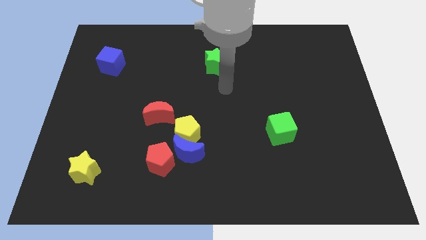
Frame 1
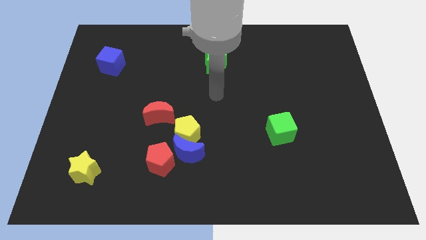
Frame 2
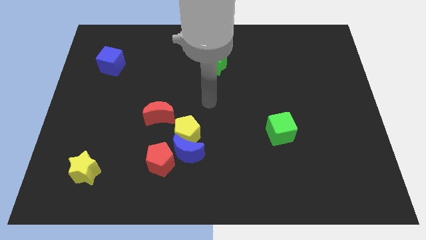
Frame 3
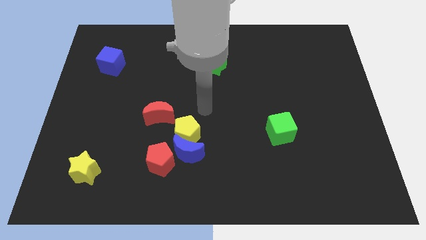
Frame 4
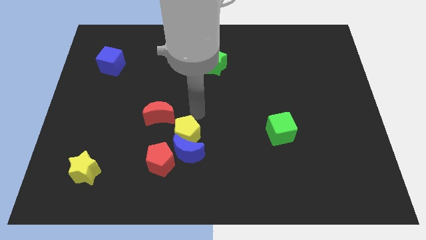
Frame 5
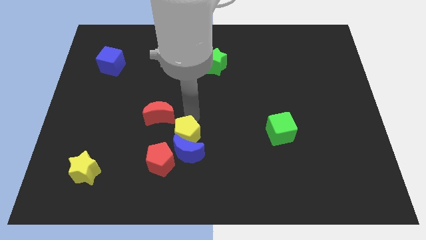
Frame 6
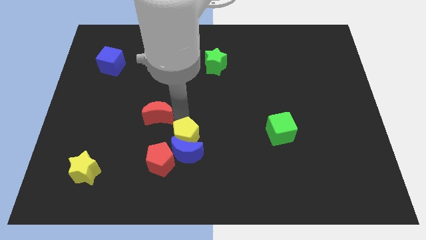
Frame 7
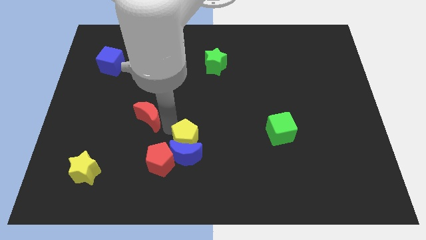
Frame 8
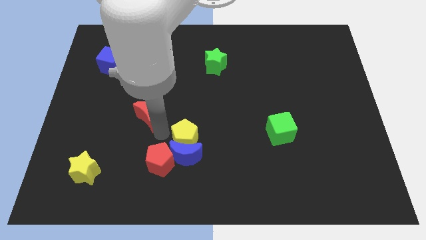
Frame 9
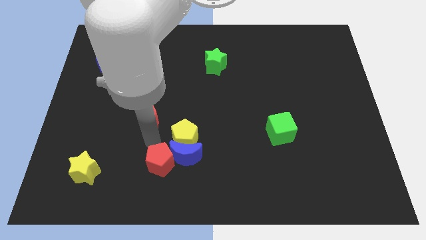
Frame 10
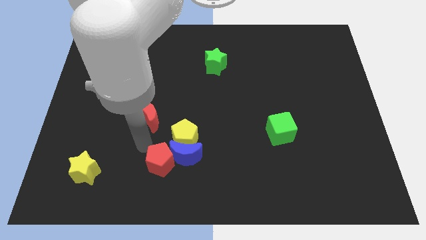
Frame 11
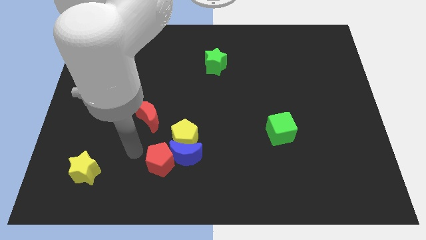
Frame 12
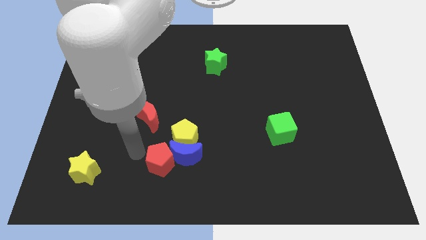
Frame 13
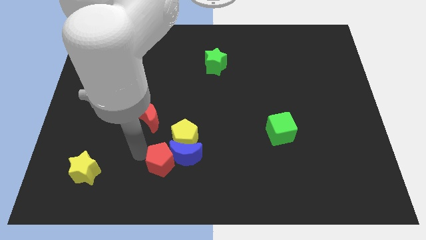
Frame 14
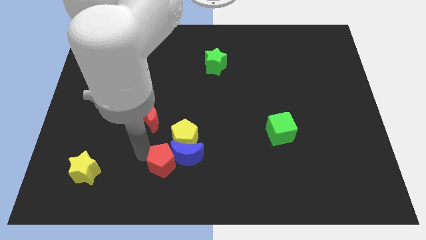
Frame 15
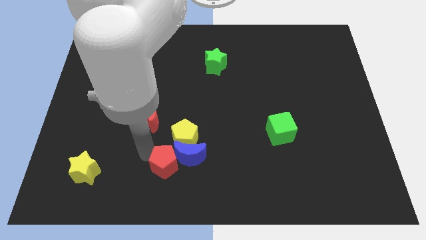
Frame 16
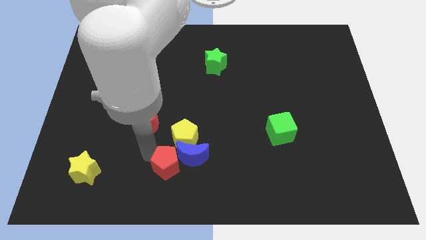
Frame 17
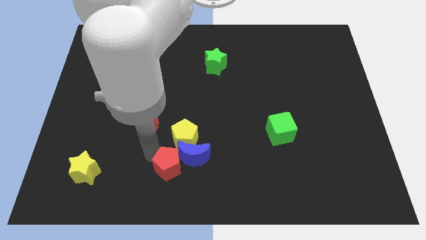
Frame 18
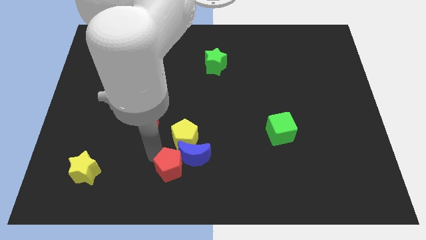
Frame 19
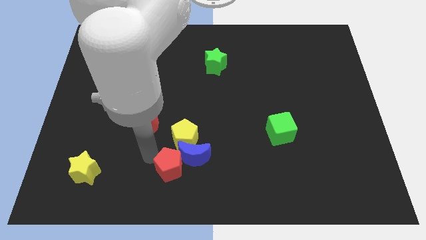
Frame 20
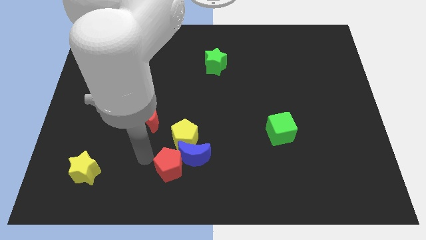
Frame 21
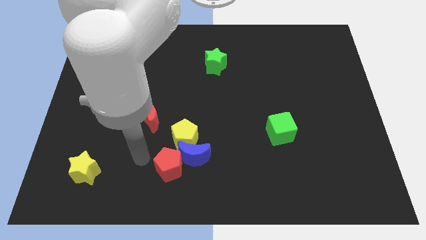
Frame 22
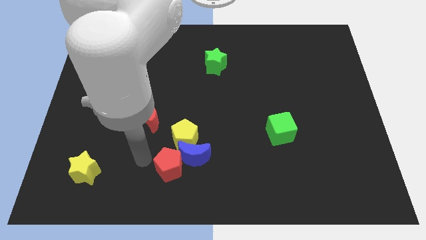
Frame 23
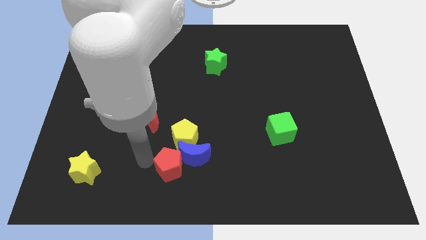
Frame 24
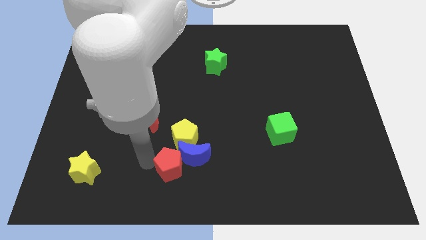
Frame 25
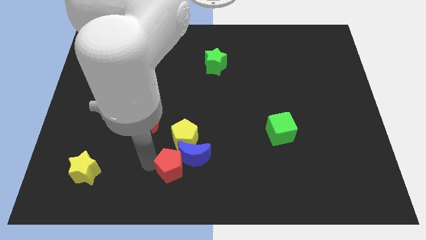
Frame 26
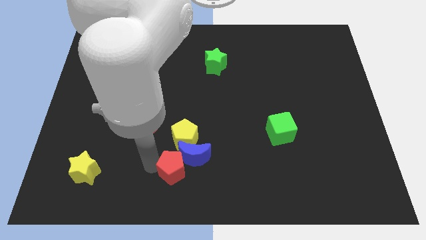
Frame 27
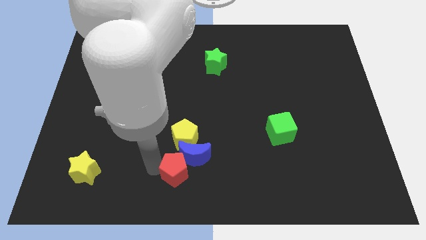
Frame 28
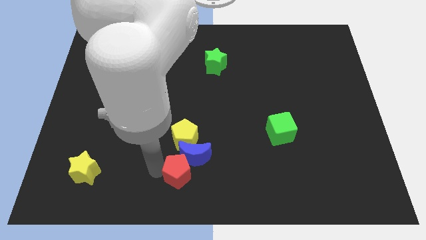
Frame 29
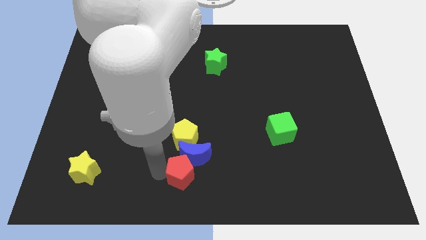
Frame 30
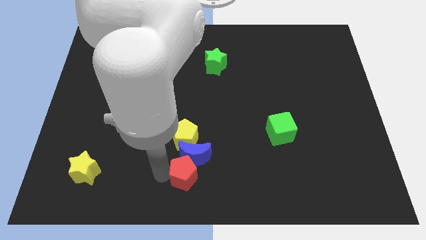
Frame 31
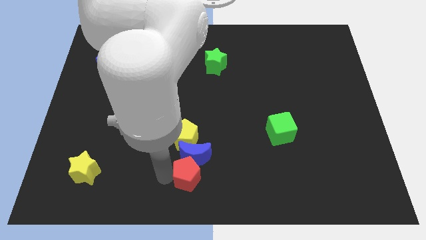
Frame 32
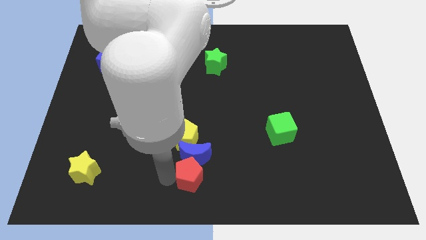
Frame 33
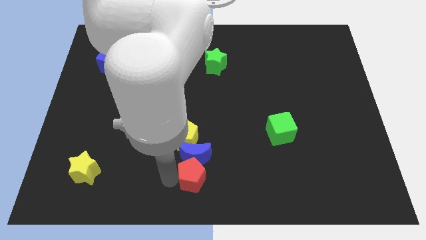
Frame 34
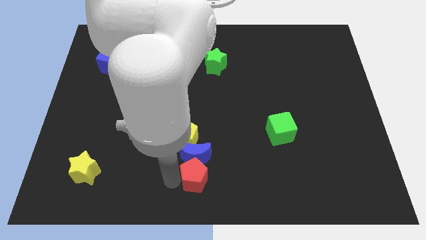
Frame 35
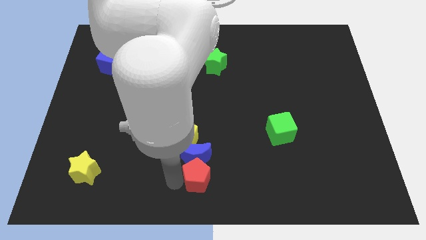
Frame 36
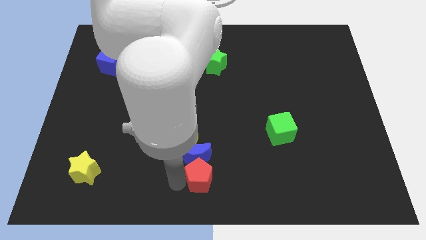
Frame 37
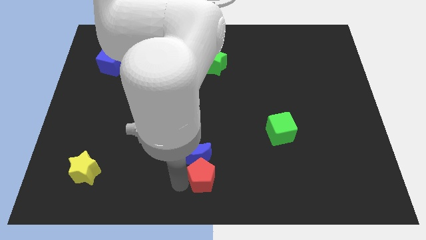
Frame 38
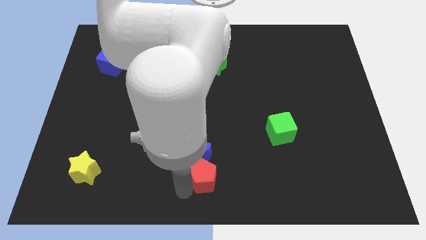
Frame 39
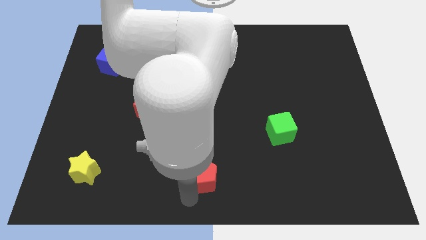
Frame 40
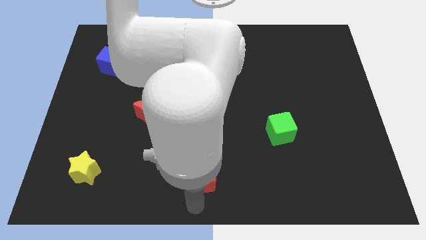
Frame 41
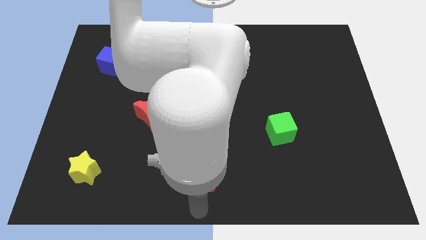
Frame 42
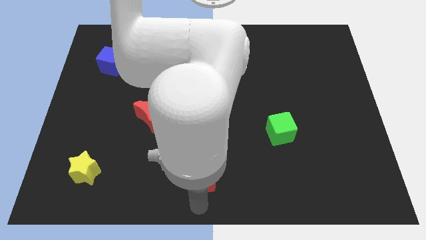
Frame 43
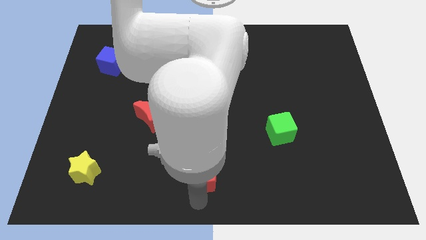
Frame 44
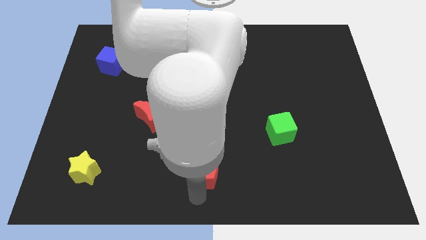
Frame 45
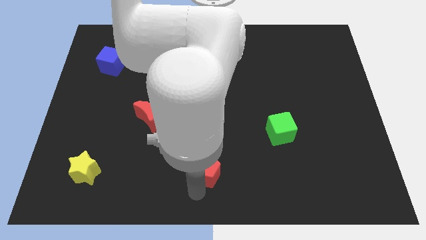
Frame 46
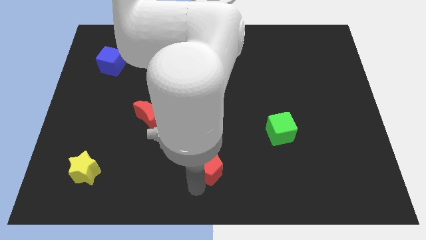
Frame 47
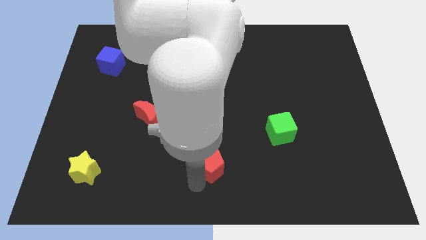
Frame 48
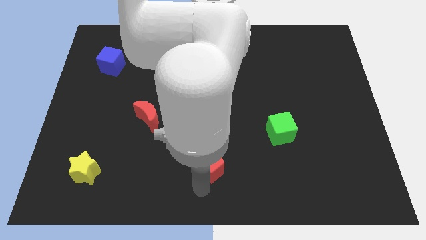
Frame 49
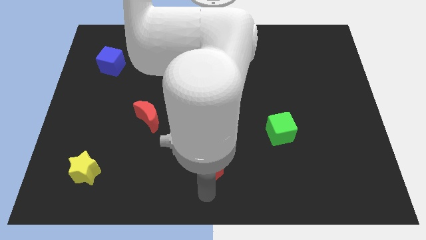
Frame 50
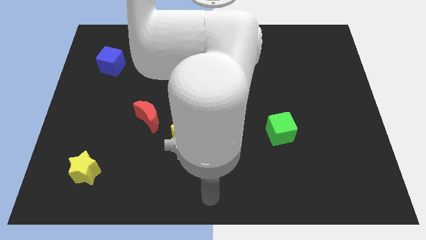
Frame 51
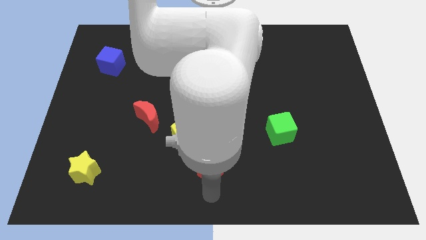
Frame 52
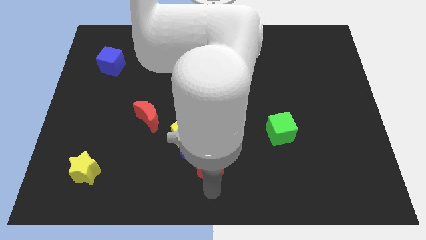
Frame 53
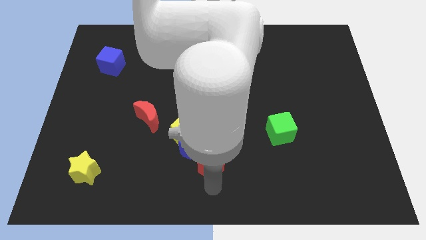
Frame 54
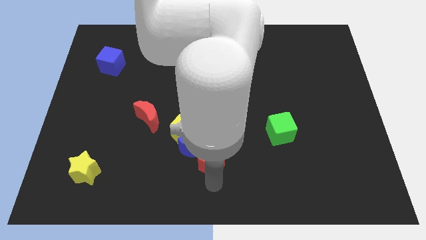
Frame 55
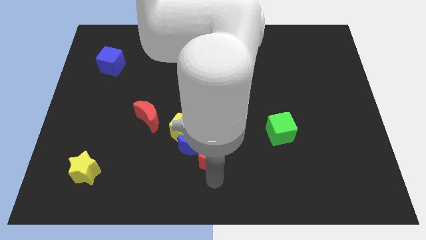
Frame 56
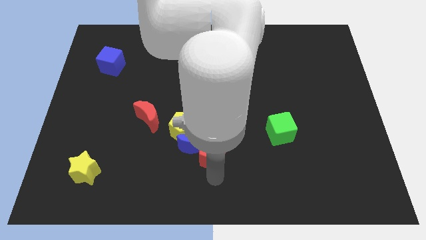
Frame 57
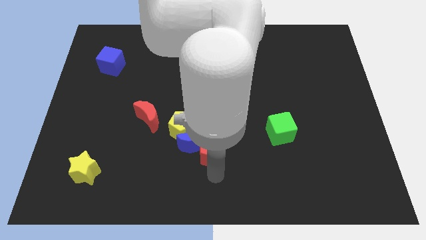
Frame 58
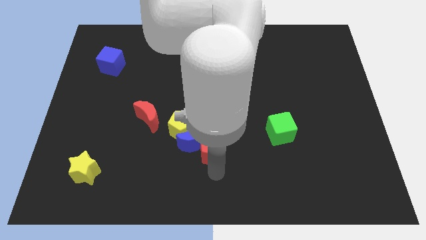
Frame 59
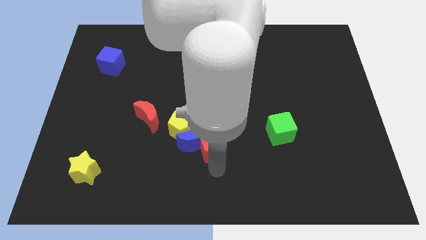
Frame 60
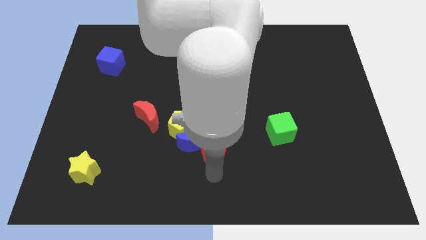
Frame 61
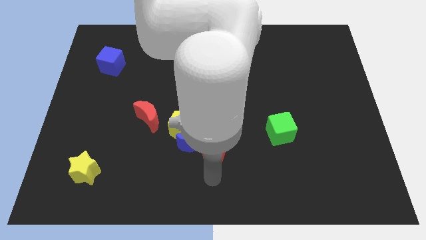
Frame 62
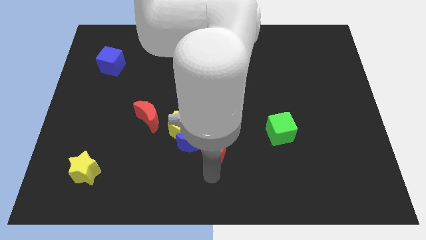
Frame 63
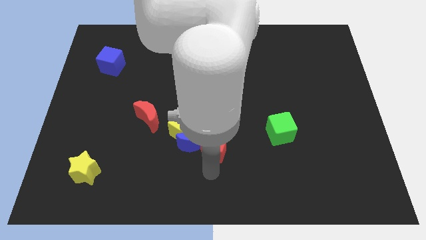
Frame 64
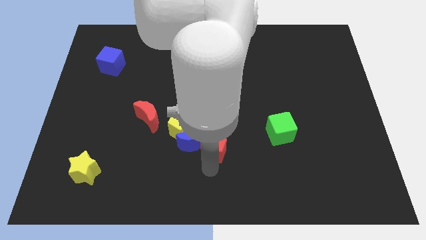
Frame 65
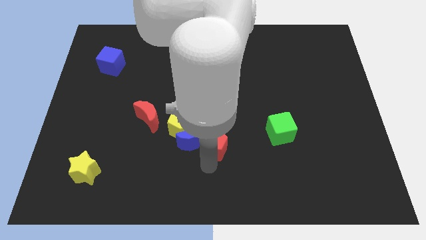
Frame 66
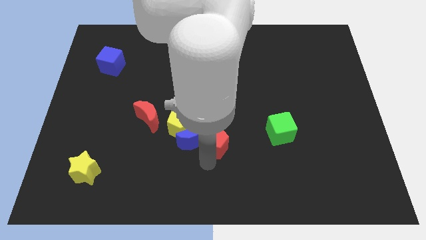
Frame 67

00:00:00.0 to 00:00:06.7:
move the red pentagon to the center of the board

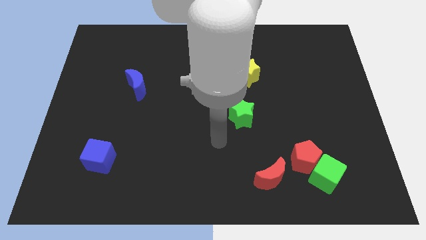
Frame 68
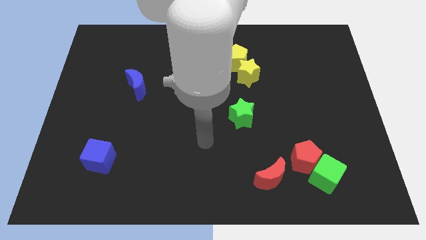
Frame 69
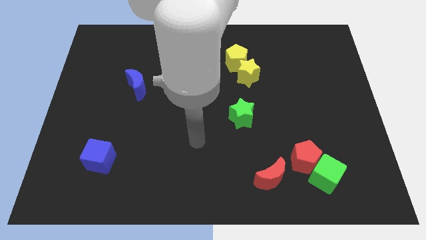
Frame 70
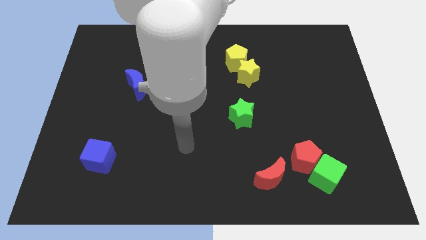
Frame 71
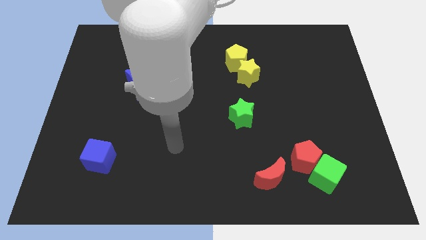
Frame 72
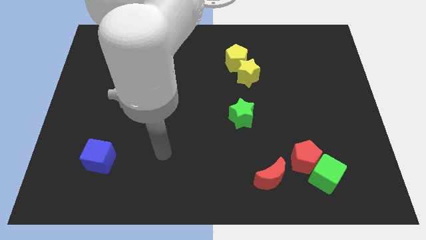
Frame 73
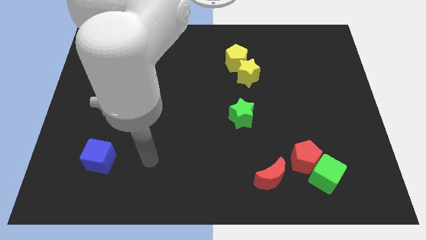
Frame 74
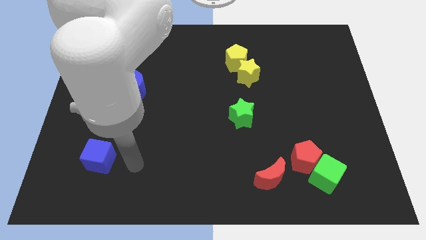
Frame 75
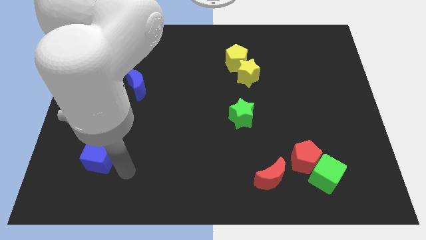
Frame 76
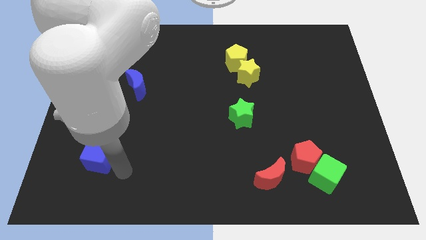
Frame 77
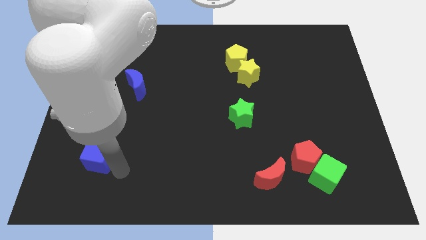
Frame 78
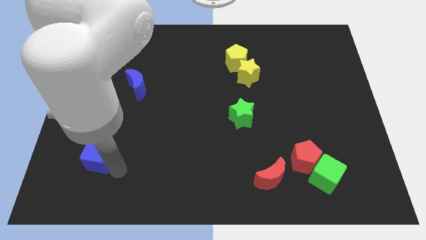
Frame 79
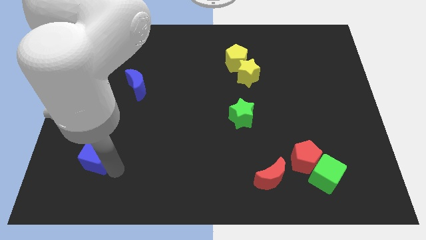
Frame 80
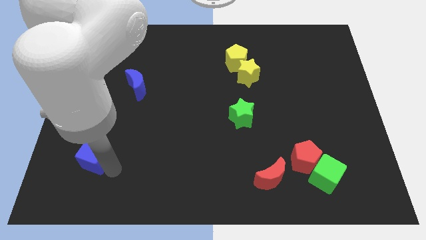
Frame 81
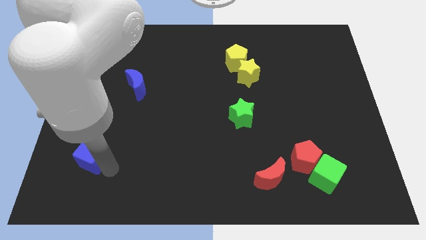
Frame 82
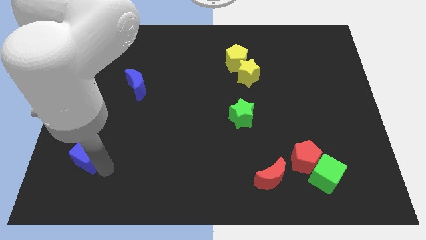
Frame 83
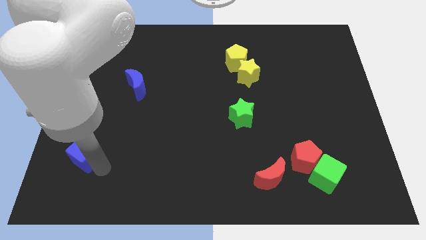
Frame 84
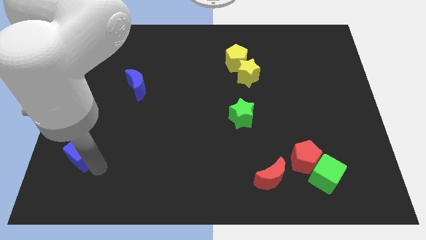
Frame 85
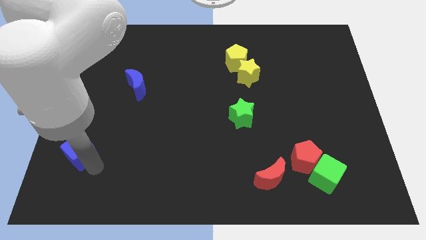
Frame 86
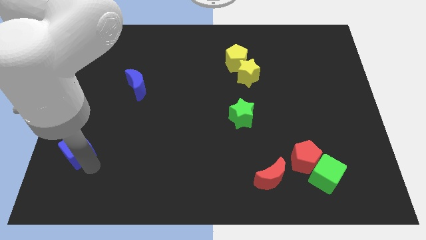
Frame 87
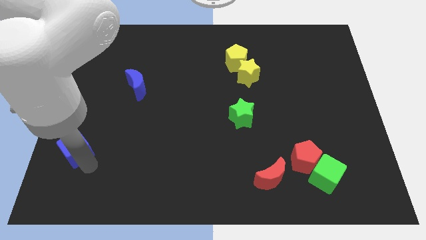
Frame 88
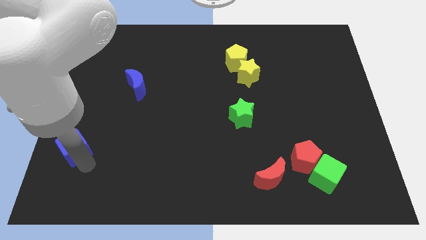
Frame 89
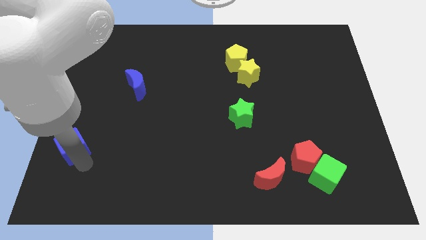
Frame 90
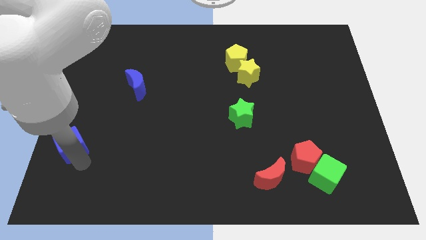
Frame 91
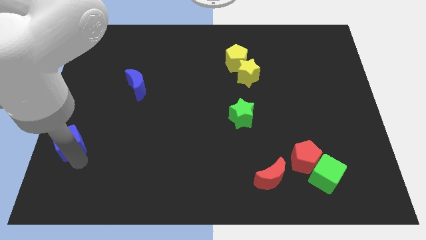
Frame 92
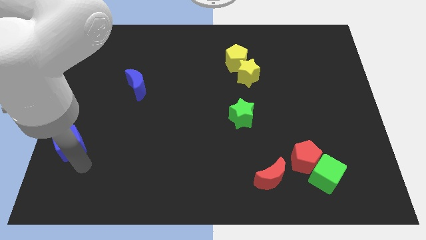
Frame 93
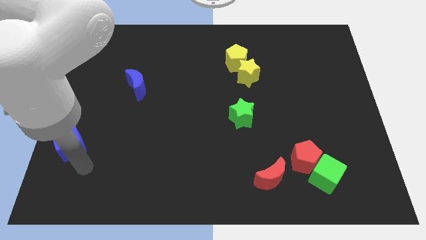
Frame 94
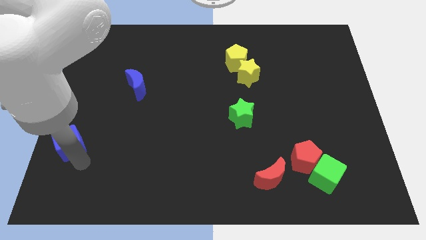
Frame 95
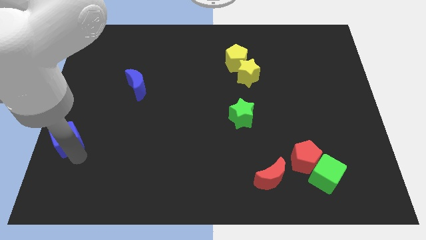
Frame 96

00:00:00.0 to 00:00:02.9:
move the blue cube to the left side
